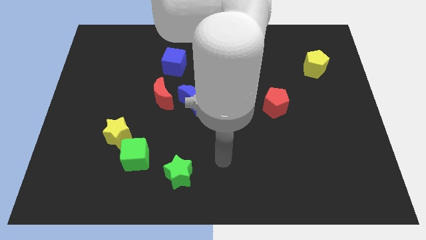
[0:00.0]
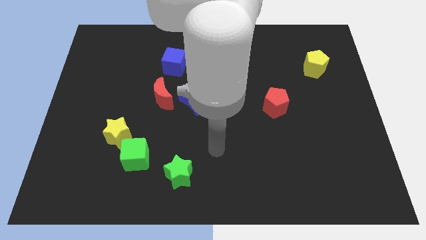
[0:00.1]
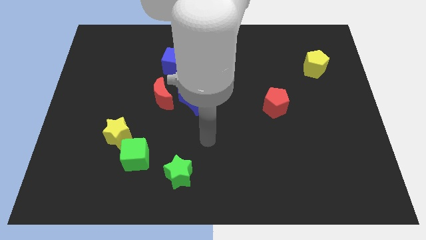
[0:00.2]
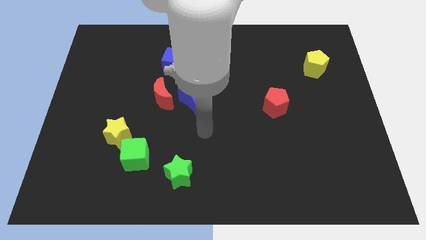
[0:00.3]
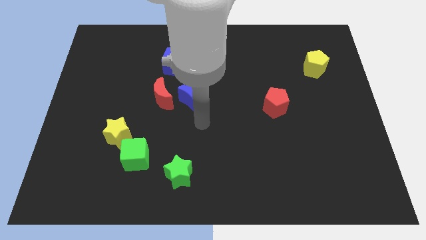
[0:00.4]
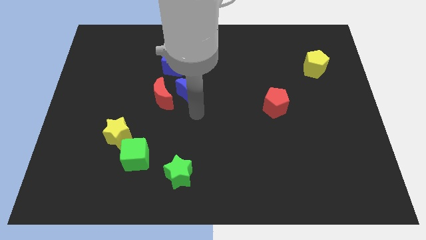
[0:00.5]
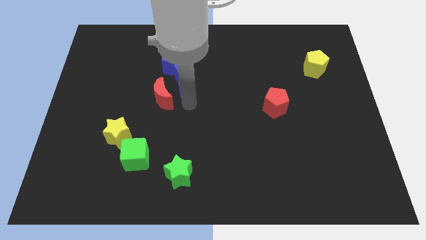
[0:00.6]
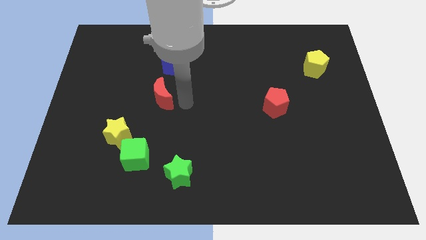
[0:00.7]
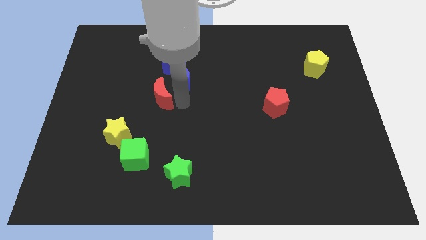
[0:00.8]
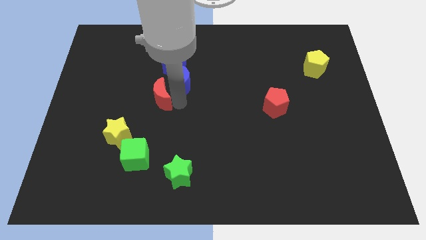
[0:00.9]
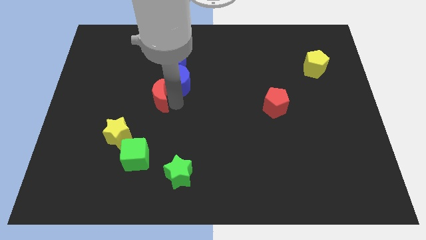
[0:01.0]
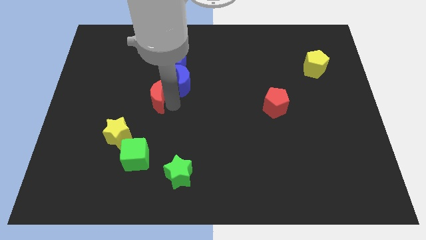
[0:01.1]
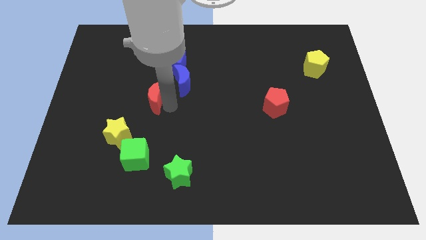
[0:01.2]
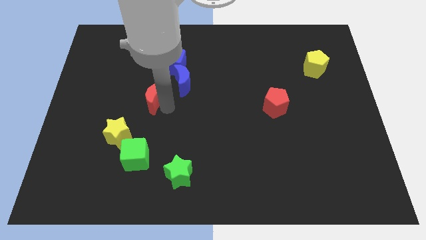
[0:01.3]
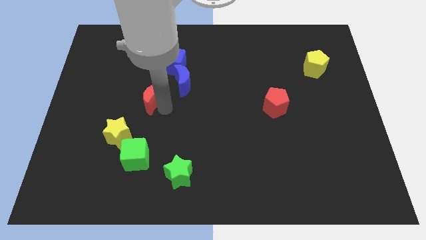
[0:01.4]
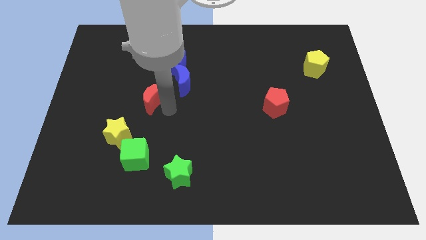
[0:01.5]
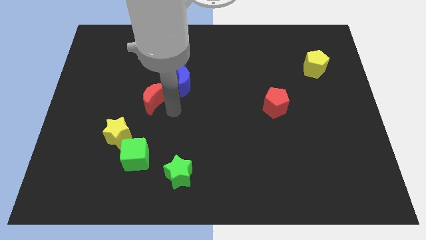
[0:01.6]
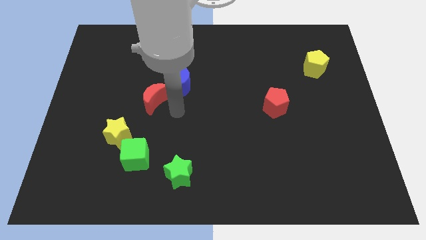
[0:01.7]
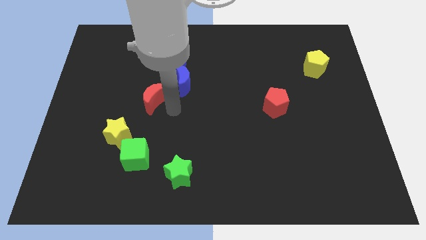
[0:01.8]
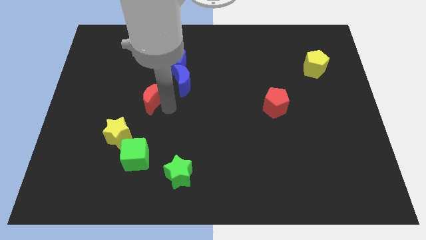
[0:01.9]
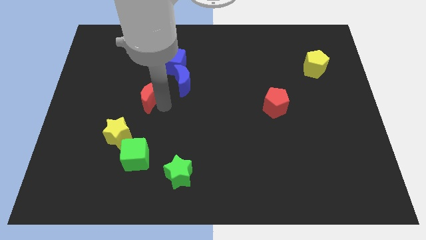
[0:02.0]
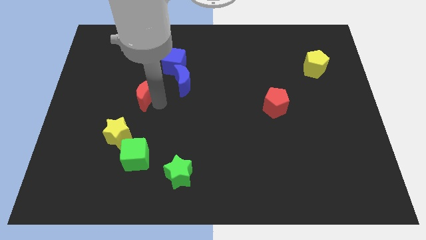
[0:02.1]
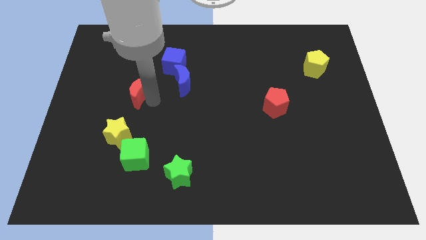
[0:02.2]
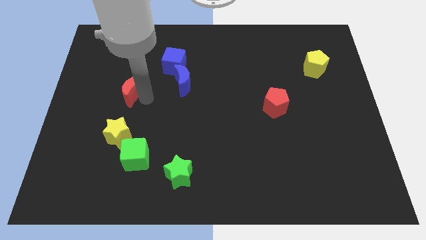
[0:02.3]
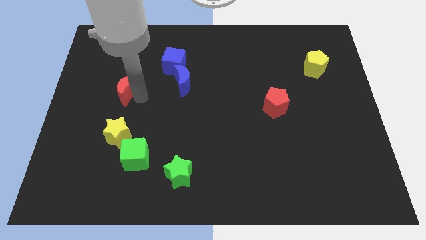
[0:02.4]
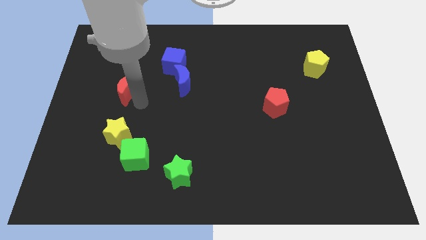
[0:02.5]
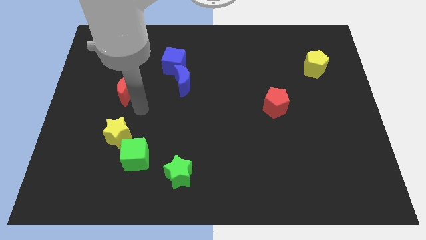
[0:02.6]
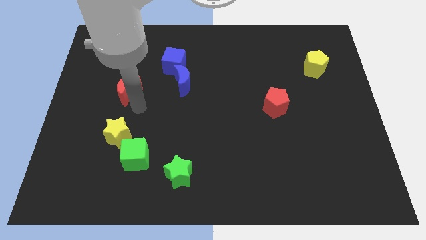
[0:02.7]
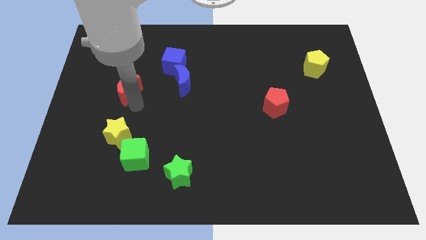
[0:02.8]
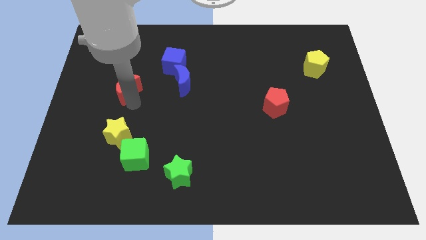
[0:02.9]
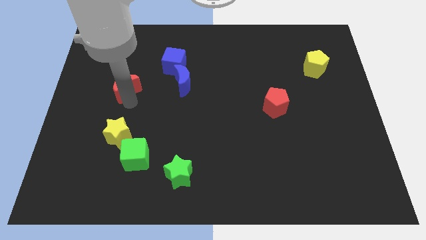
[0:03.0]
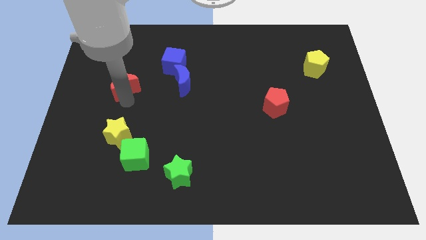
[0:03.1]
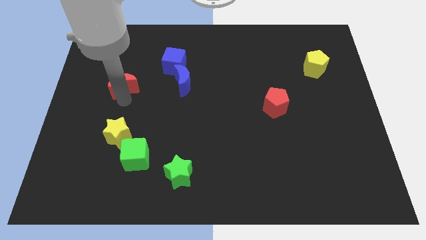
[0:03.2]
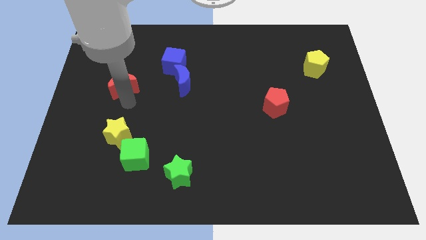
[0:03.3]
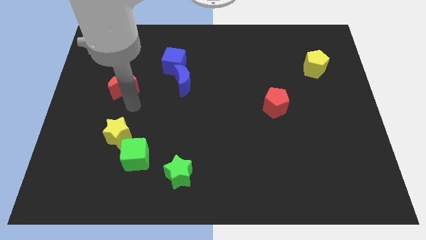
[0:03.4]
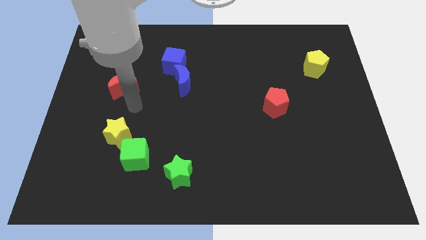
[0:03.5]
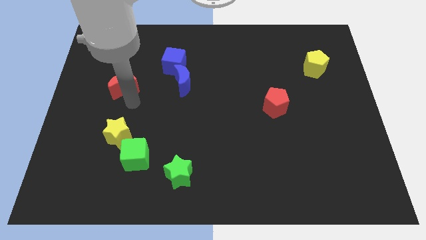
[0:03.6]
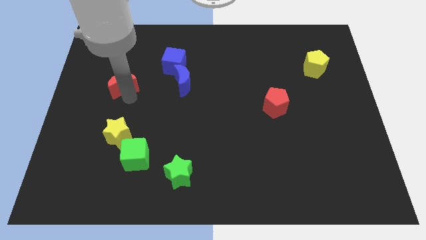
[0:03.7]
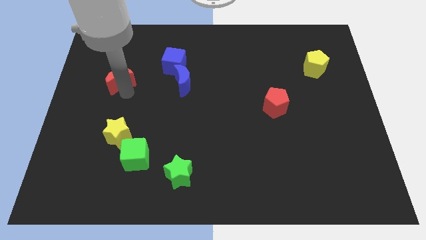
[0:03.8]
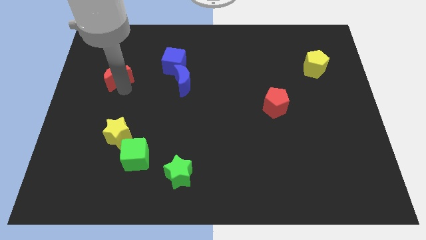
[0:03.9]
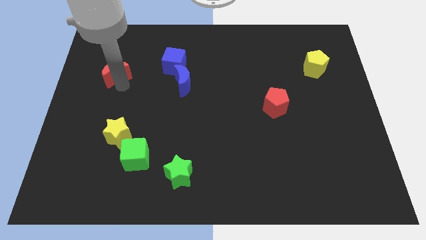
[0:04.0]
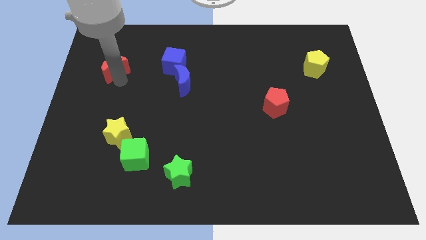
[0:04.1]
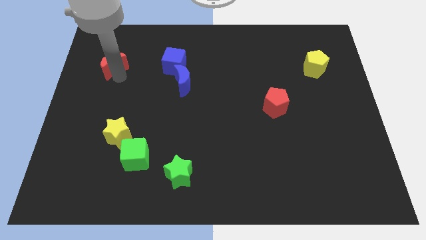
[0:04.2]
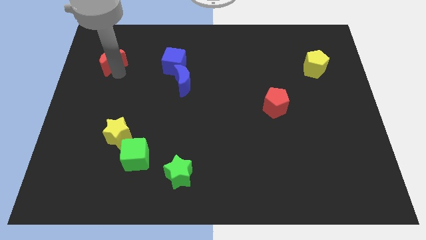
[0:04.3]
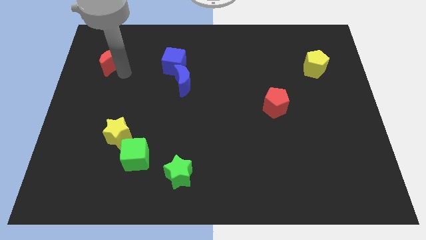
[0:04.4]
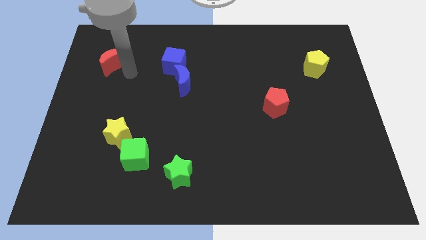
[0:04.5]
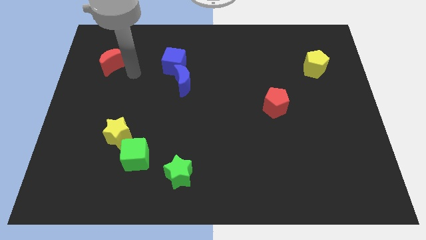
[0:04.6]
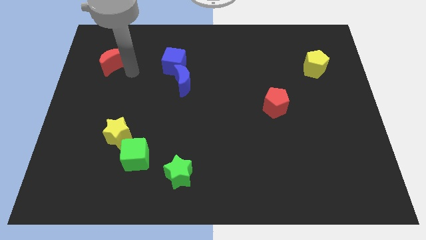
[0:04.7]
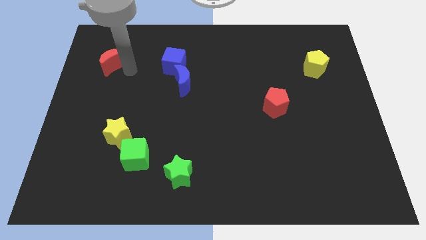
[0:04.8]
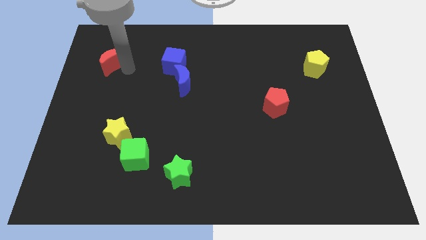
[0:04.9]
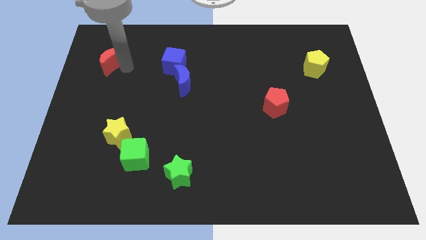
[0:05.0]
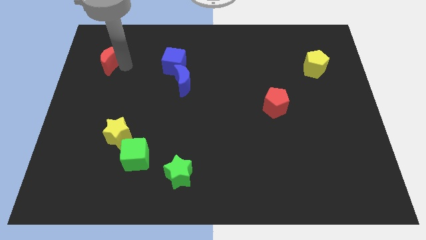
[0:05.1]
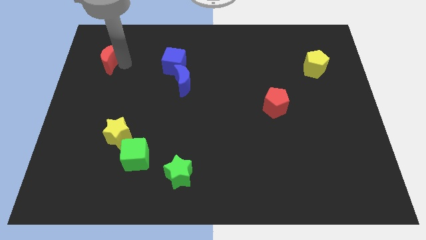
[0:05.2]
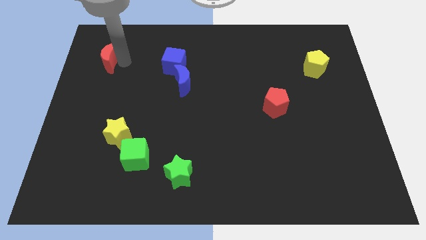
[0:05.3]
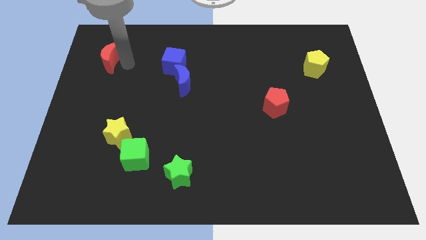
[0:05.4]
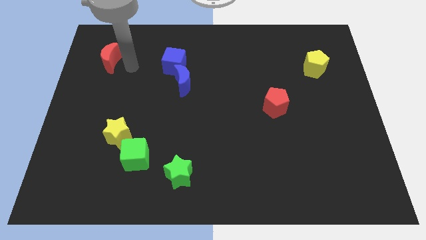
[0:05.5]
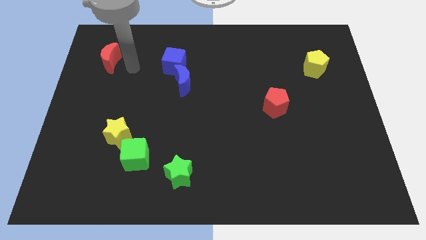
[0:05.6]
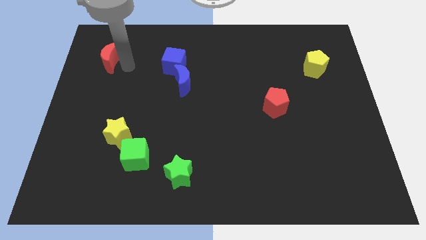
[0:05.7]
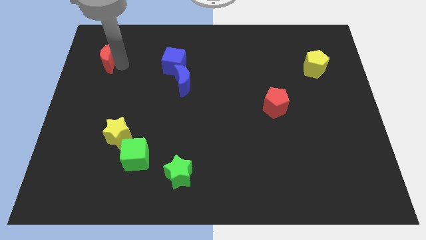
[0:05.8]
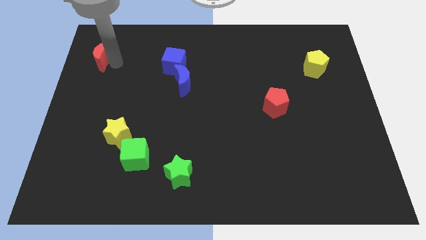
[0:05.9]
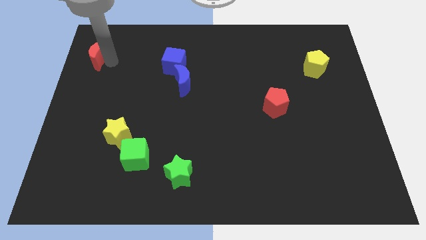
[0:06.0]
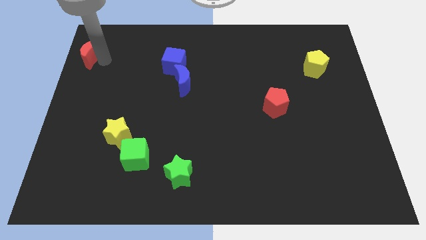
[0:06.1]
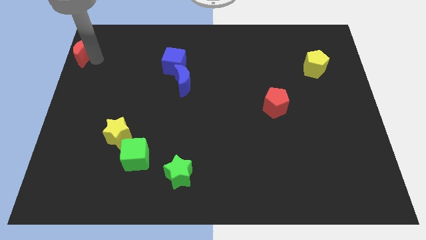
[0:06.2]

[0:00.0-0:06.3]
move the red moon to the top left of the board
